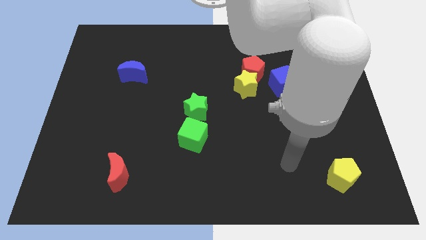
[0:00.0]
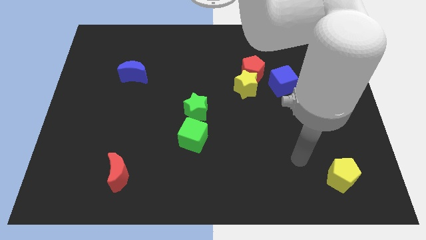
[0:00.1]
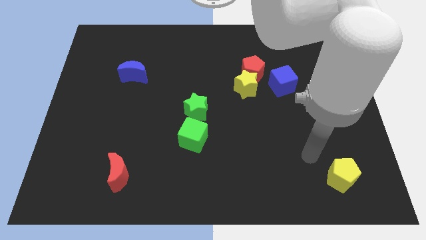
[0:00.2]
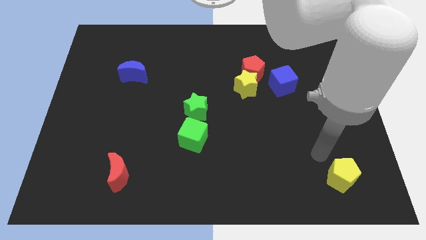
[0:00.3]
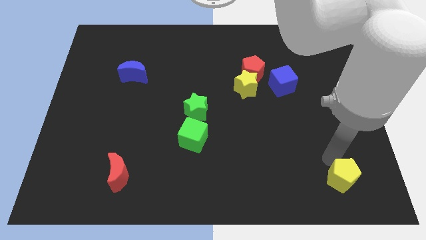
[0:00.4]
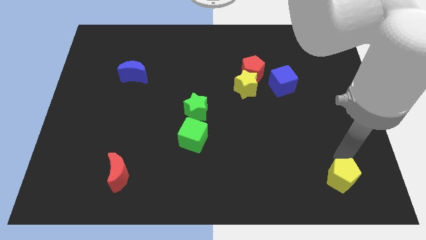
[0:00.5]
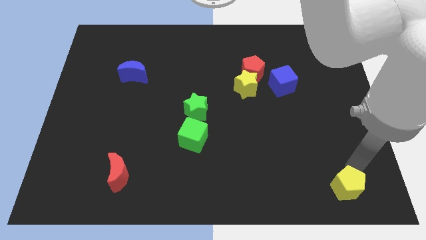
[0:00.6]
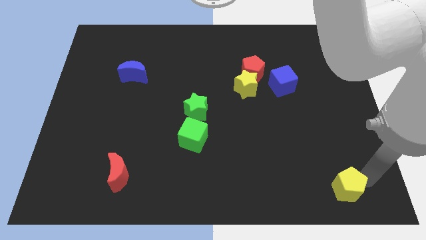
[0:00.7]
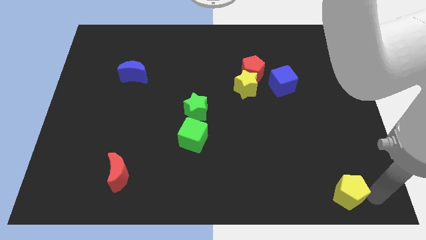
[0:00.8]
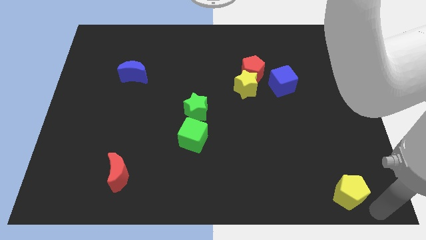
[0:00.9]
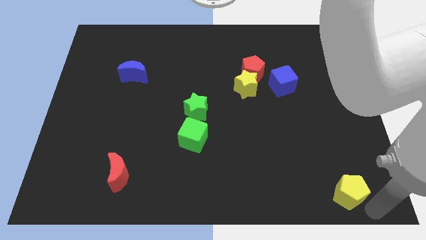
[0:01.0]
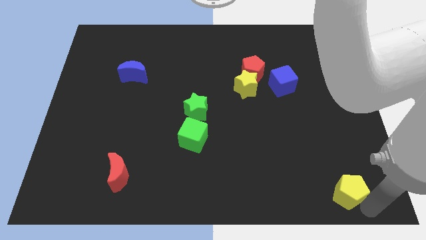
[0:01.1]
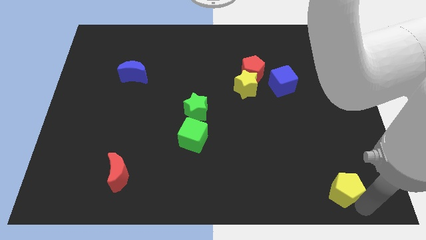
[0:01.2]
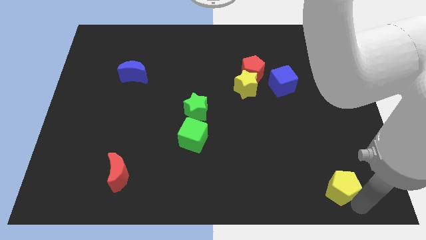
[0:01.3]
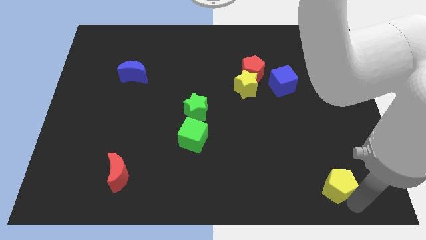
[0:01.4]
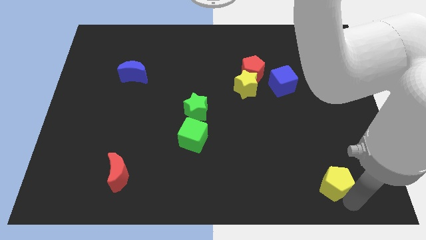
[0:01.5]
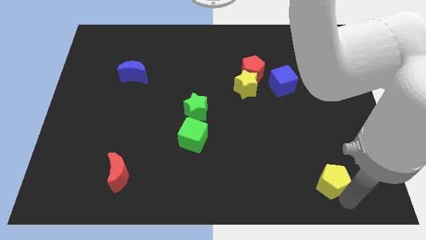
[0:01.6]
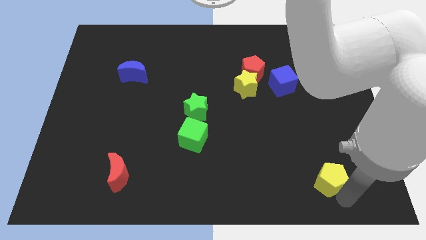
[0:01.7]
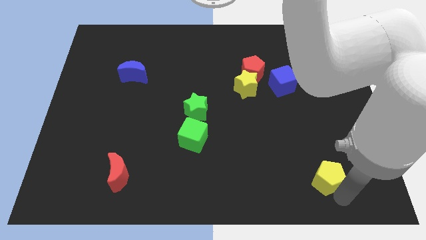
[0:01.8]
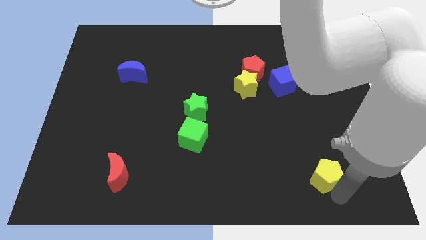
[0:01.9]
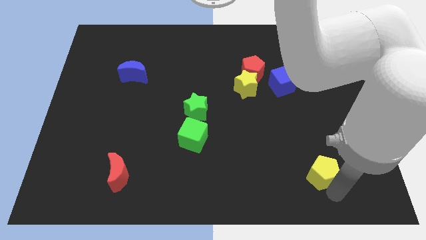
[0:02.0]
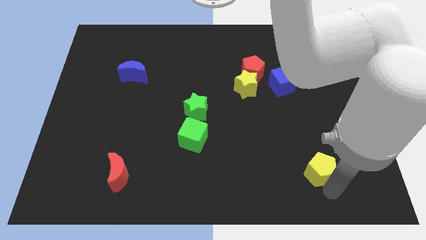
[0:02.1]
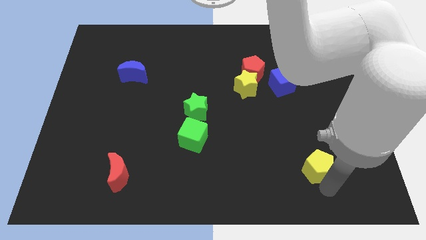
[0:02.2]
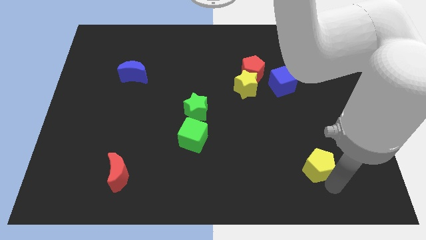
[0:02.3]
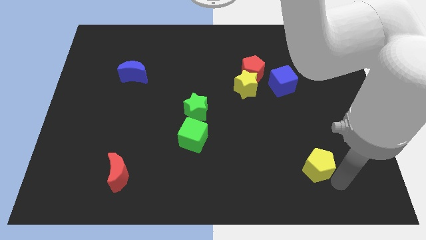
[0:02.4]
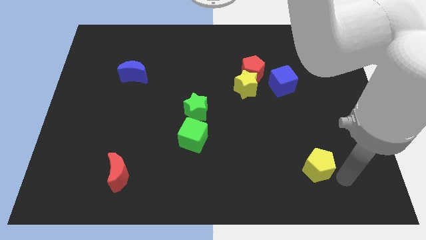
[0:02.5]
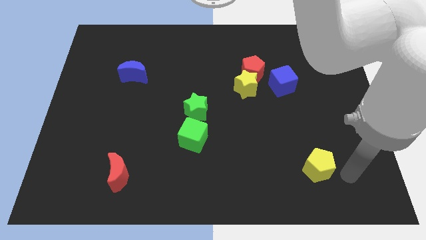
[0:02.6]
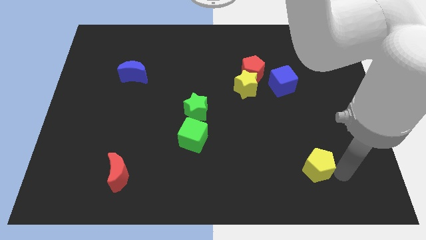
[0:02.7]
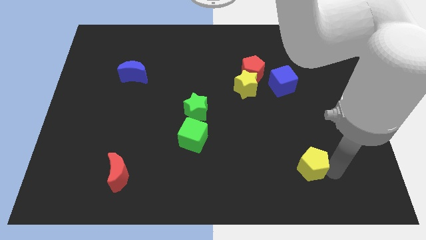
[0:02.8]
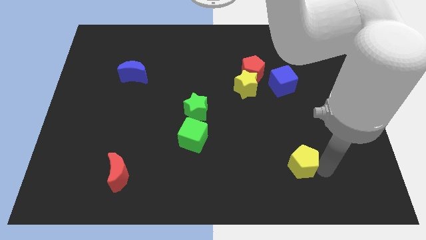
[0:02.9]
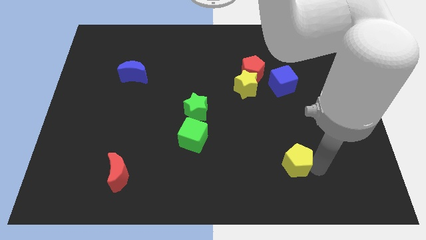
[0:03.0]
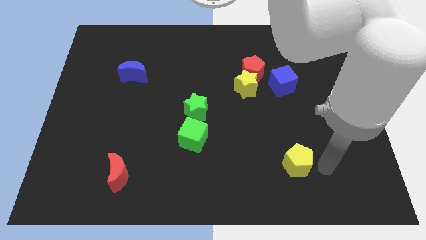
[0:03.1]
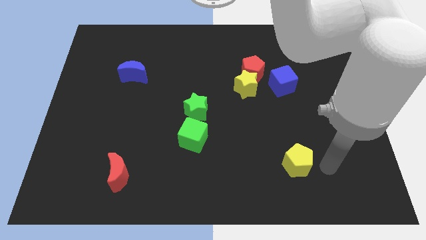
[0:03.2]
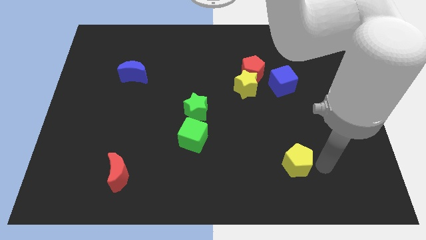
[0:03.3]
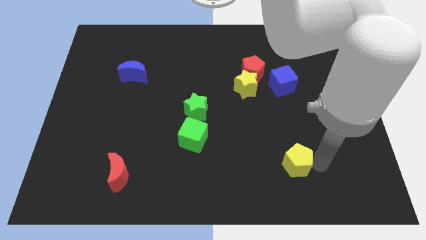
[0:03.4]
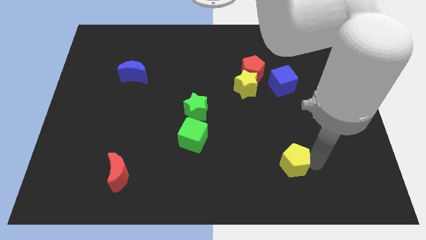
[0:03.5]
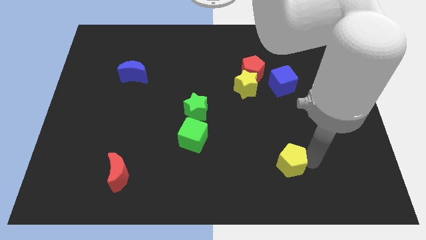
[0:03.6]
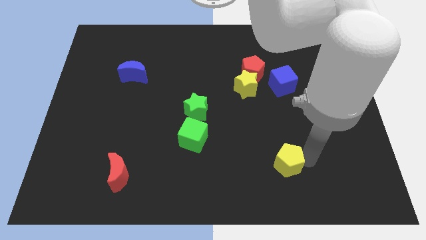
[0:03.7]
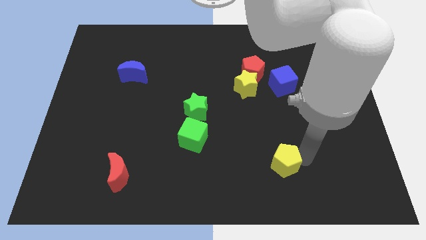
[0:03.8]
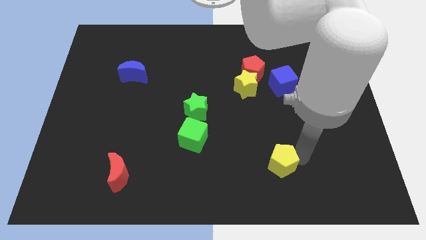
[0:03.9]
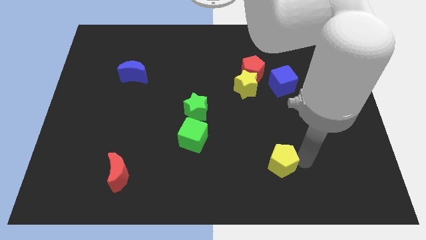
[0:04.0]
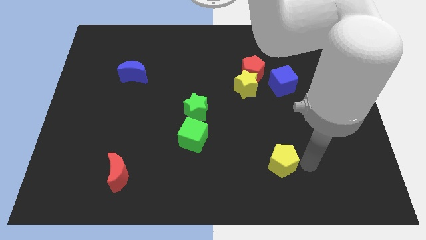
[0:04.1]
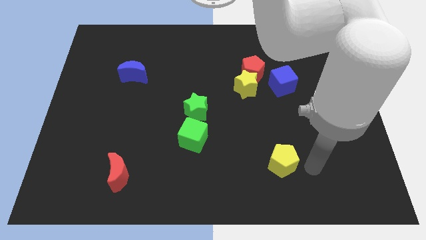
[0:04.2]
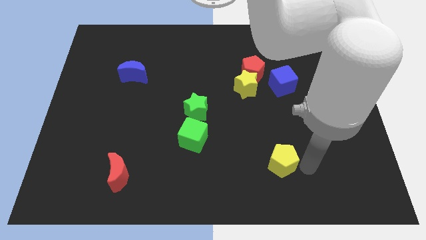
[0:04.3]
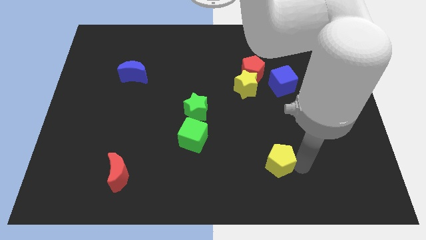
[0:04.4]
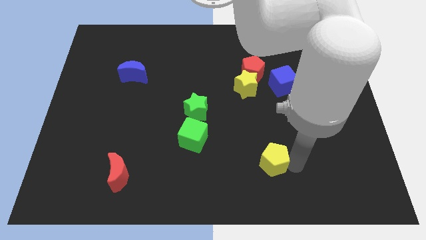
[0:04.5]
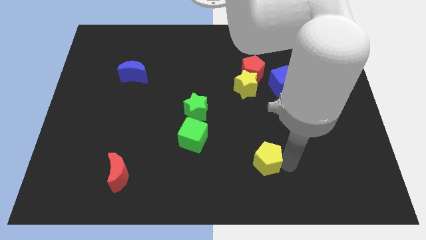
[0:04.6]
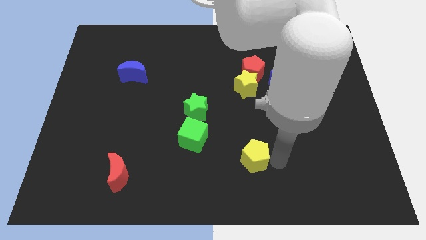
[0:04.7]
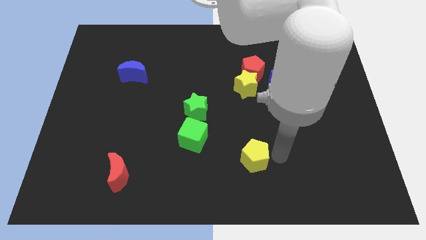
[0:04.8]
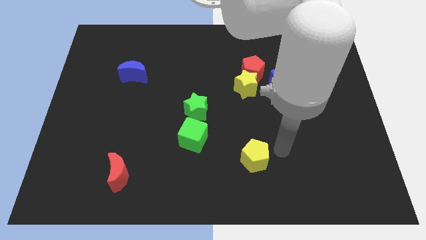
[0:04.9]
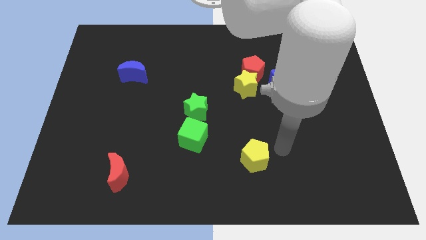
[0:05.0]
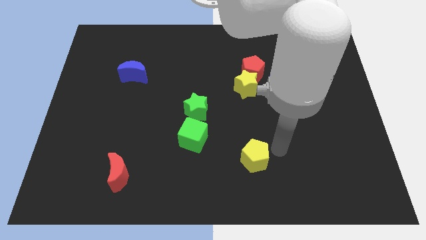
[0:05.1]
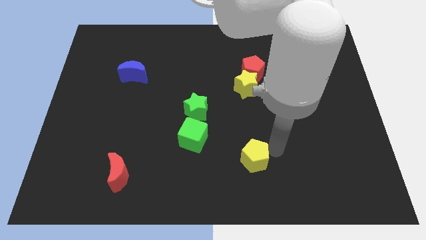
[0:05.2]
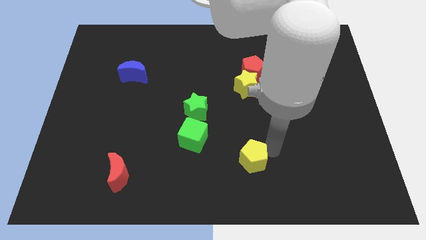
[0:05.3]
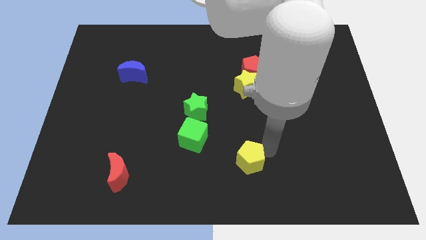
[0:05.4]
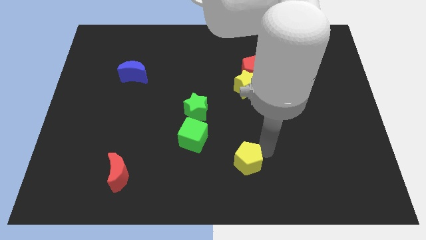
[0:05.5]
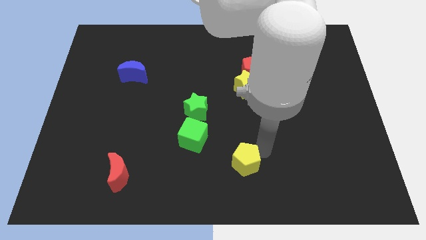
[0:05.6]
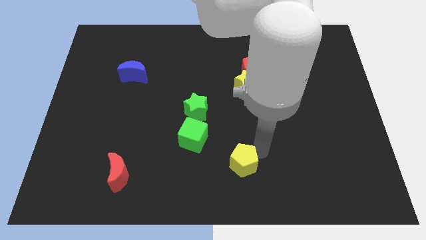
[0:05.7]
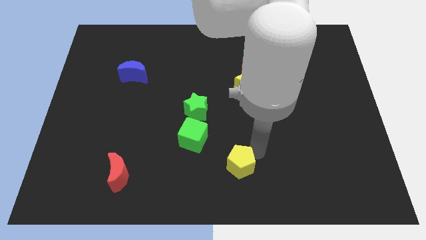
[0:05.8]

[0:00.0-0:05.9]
slide the yellow pentagon left

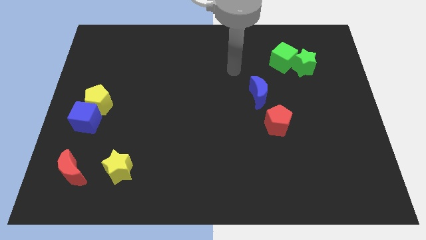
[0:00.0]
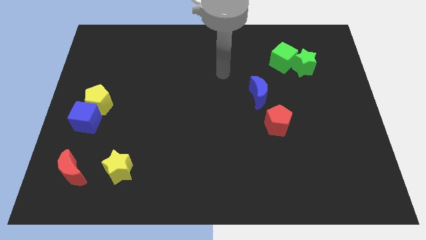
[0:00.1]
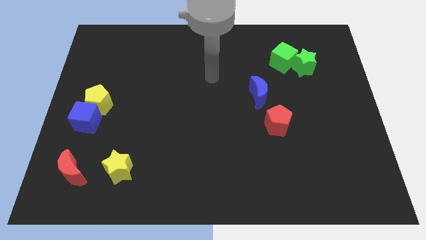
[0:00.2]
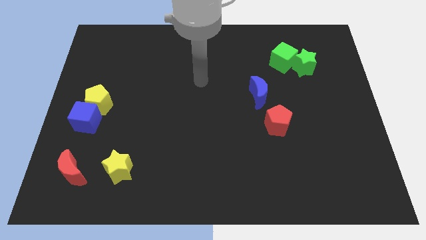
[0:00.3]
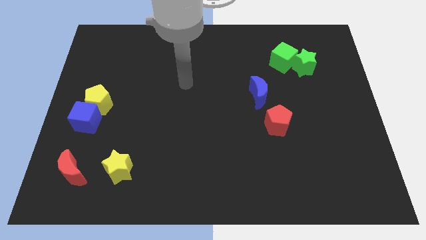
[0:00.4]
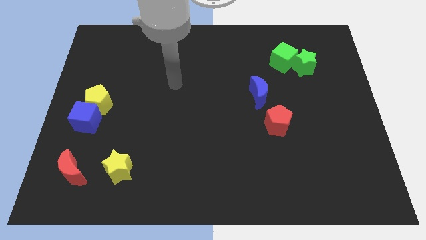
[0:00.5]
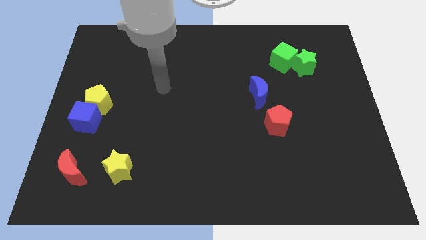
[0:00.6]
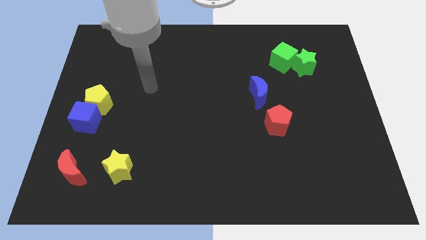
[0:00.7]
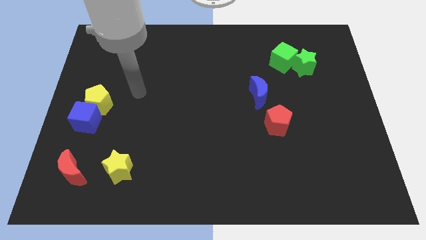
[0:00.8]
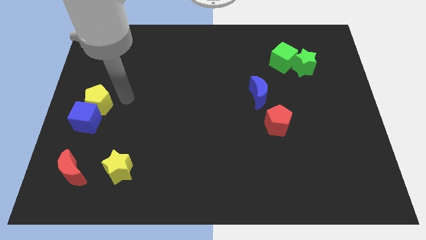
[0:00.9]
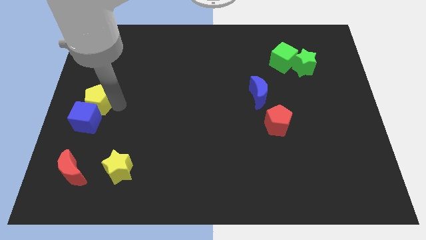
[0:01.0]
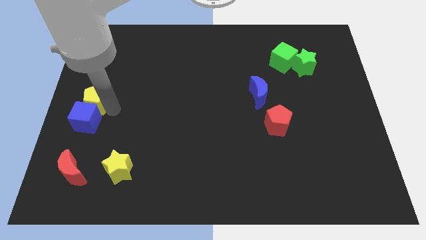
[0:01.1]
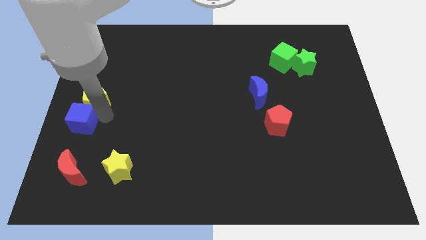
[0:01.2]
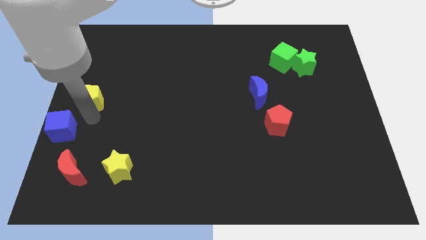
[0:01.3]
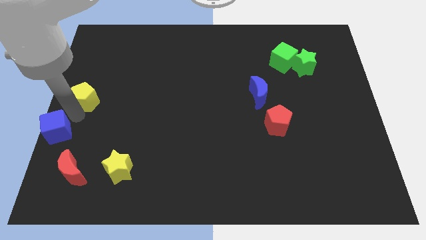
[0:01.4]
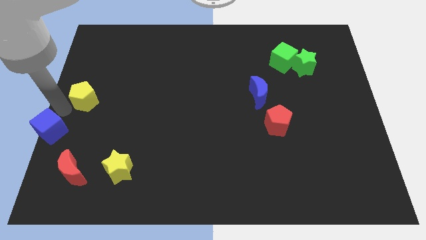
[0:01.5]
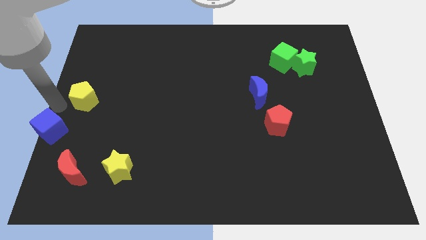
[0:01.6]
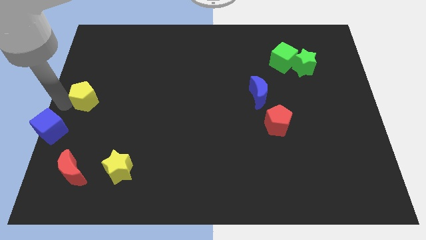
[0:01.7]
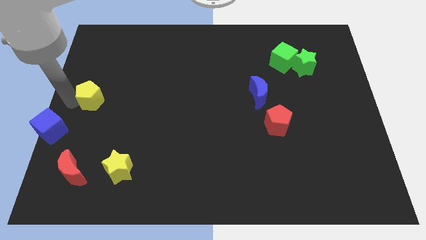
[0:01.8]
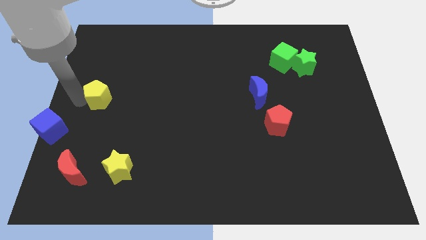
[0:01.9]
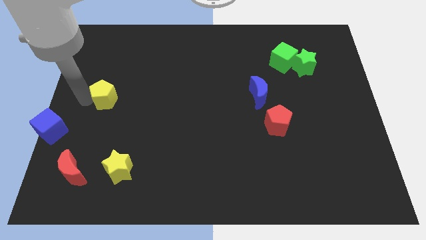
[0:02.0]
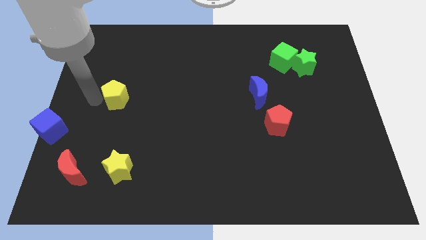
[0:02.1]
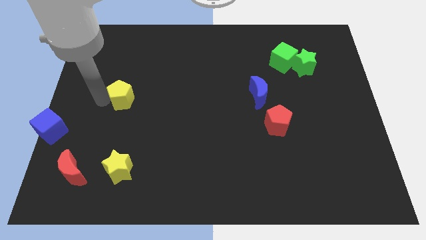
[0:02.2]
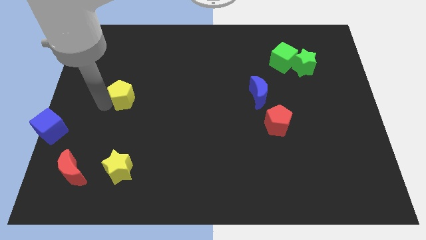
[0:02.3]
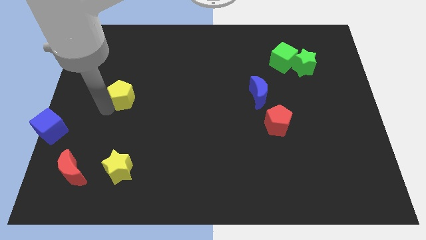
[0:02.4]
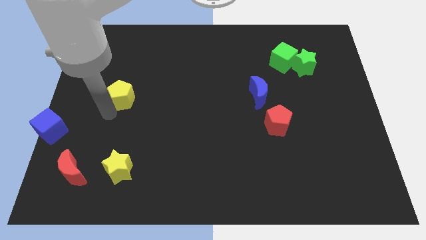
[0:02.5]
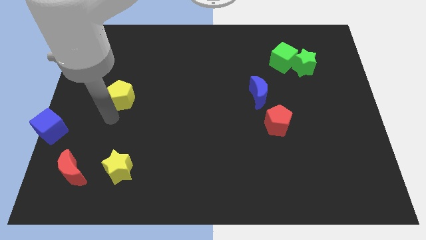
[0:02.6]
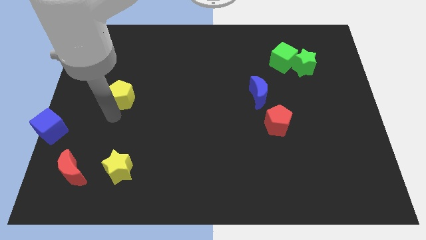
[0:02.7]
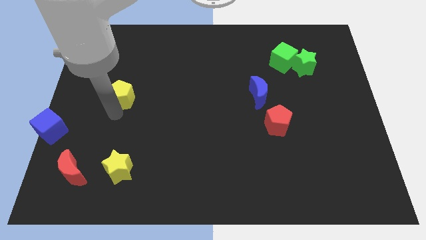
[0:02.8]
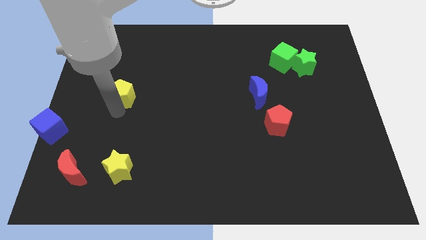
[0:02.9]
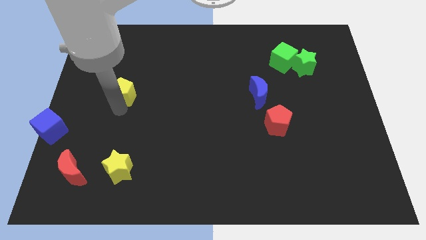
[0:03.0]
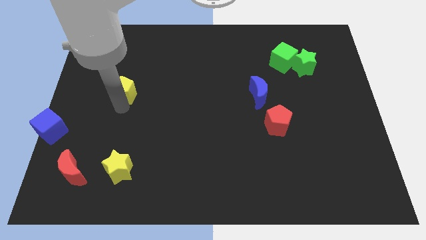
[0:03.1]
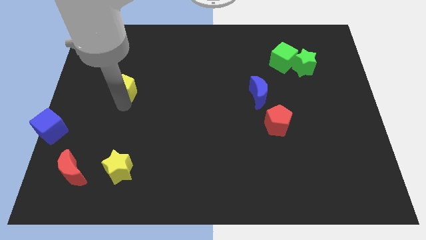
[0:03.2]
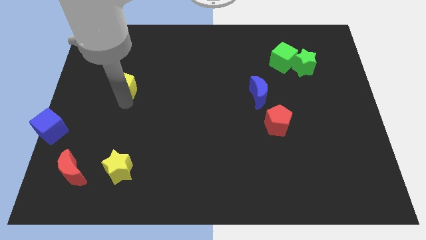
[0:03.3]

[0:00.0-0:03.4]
push the yellow pentagon diagonally up and right a bit
